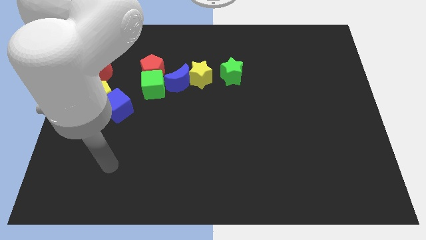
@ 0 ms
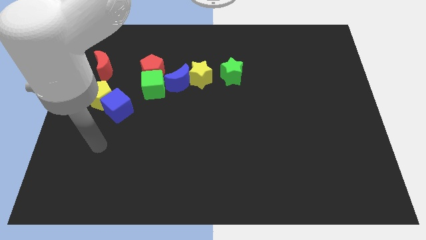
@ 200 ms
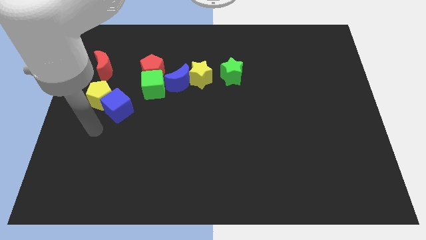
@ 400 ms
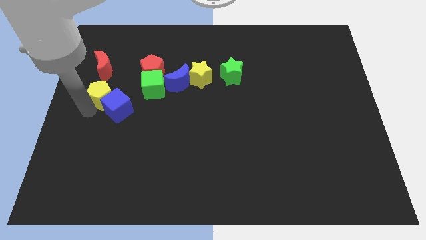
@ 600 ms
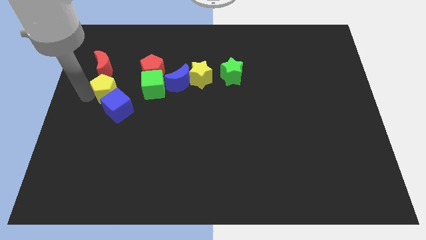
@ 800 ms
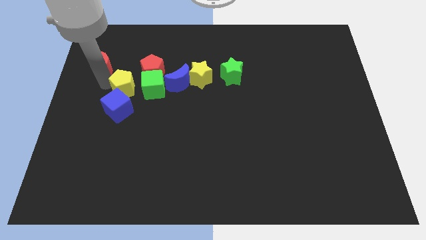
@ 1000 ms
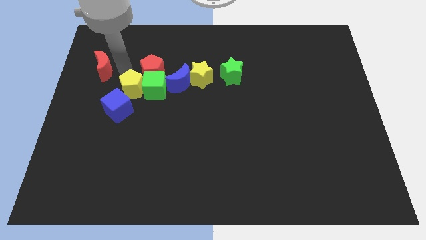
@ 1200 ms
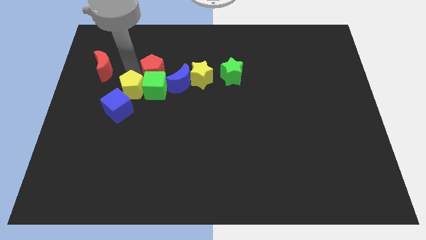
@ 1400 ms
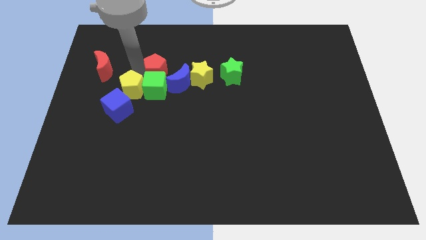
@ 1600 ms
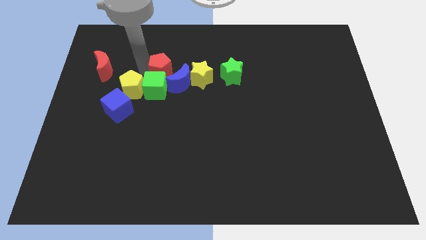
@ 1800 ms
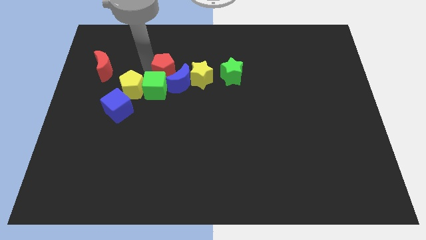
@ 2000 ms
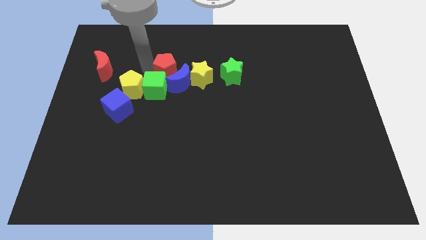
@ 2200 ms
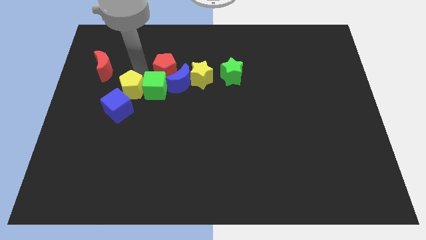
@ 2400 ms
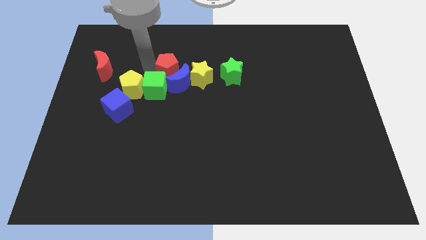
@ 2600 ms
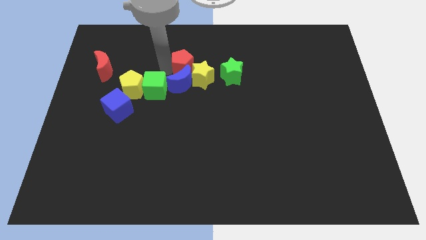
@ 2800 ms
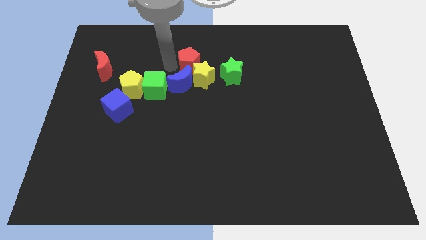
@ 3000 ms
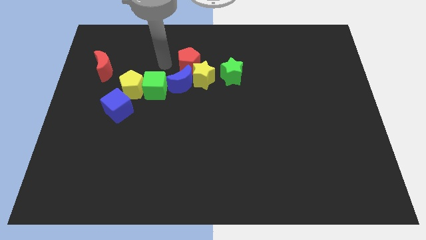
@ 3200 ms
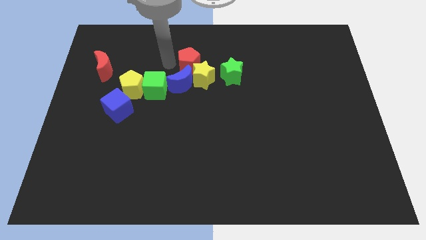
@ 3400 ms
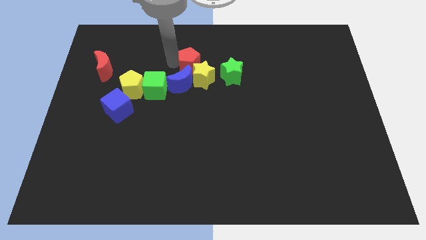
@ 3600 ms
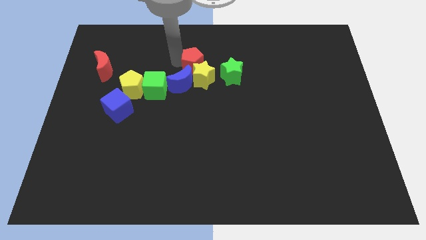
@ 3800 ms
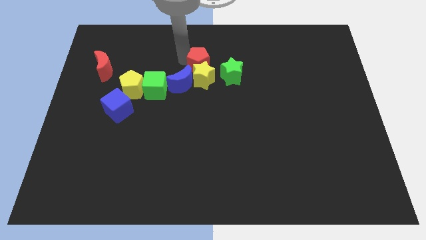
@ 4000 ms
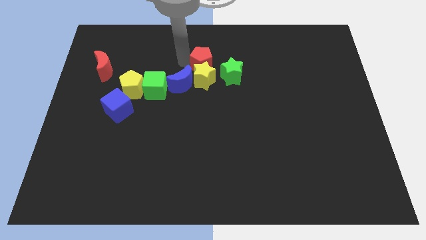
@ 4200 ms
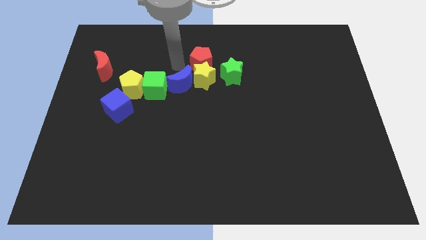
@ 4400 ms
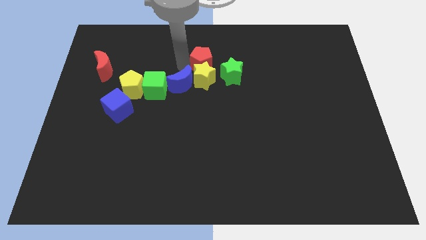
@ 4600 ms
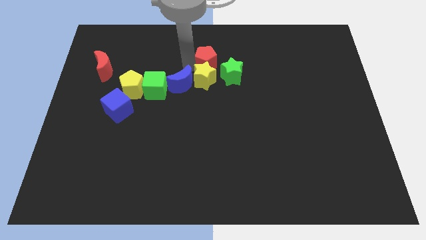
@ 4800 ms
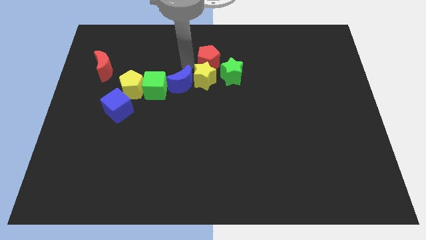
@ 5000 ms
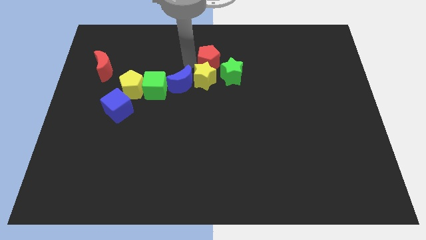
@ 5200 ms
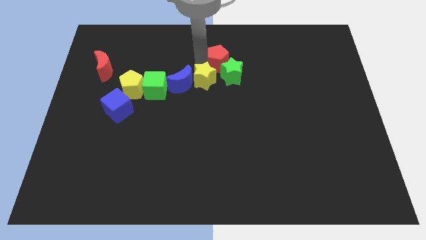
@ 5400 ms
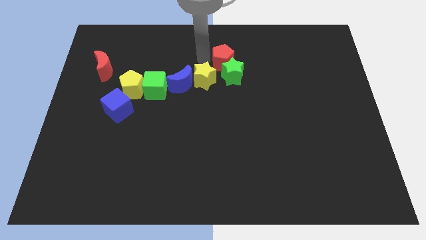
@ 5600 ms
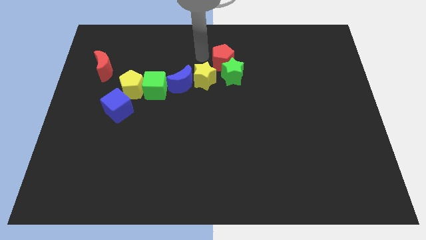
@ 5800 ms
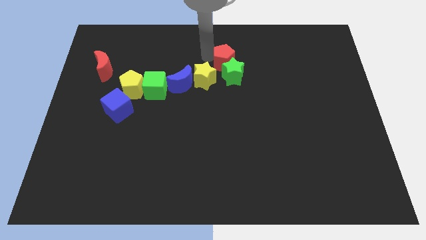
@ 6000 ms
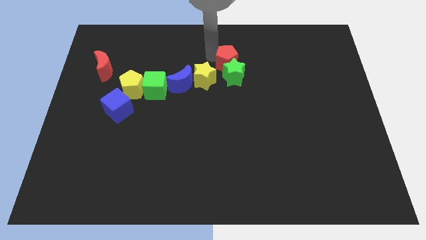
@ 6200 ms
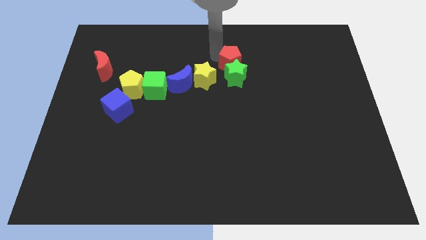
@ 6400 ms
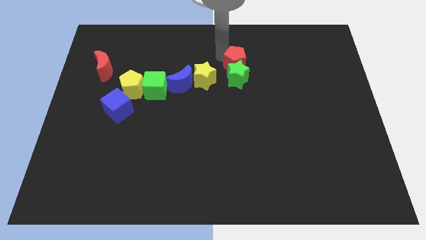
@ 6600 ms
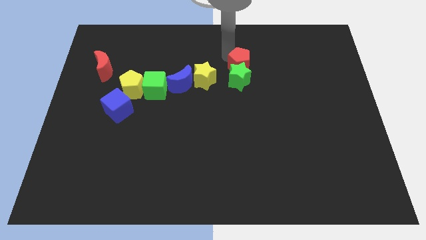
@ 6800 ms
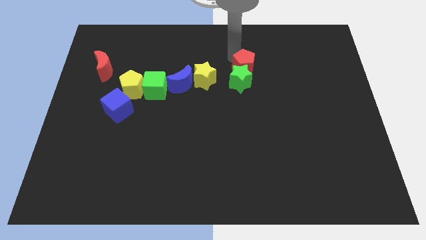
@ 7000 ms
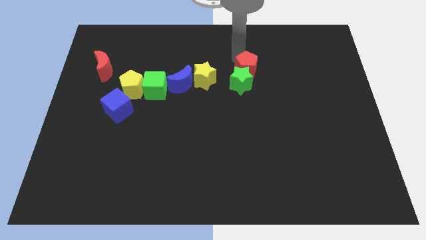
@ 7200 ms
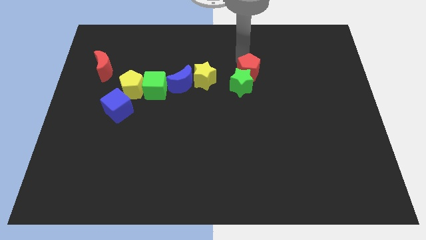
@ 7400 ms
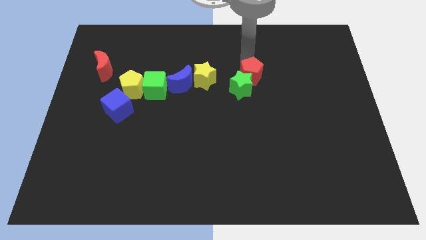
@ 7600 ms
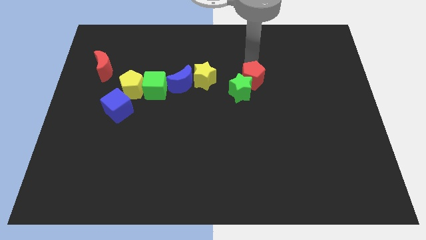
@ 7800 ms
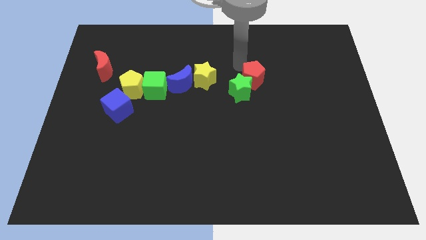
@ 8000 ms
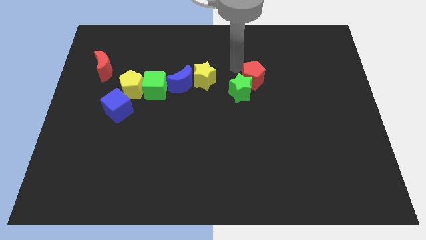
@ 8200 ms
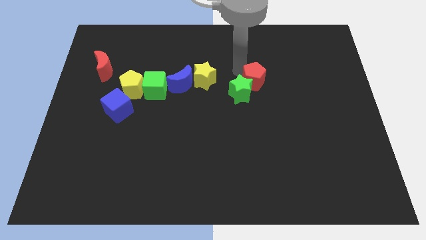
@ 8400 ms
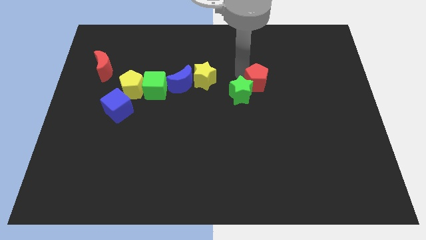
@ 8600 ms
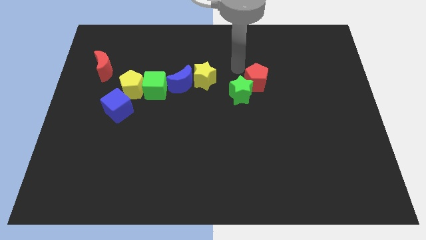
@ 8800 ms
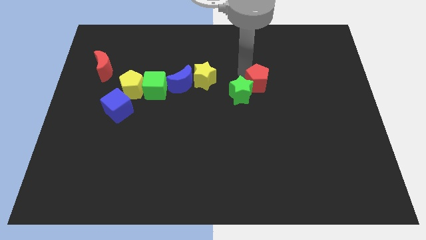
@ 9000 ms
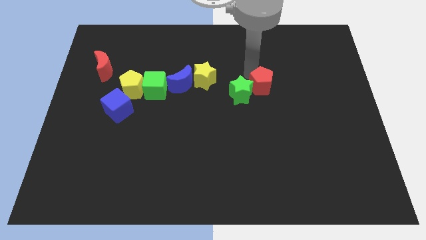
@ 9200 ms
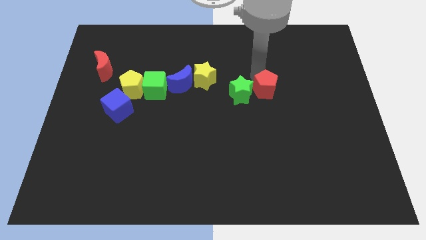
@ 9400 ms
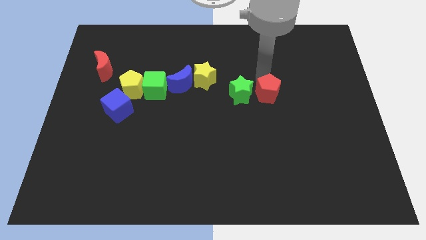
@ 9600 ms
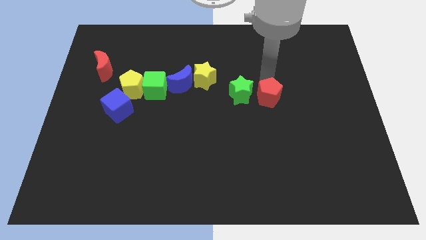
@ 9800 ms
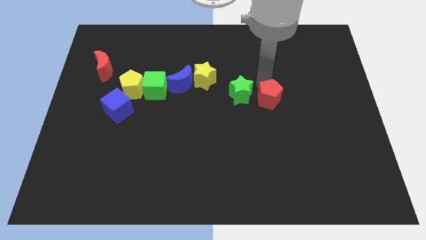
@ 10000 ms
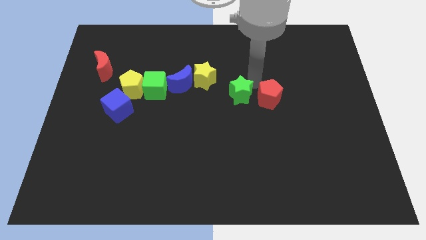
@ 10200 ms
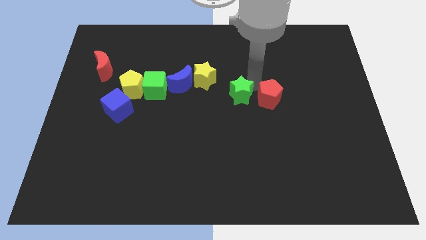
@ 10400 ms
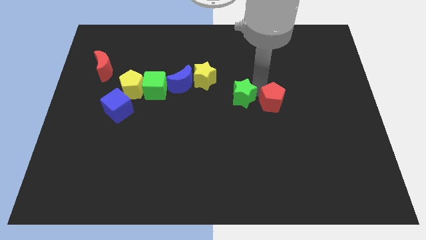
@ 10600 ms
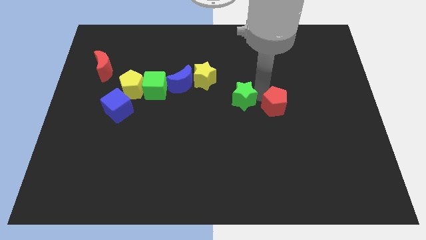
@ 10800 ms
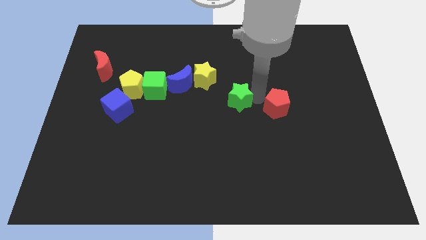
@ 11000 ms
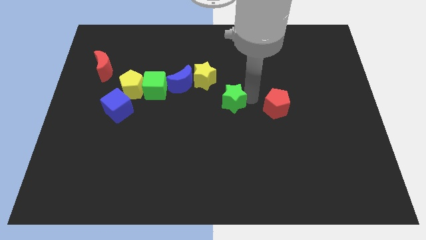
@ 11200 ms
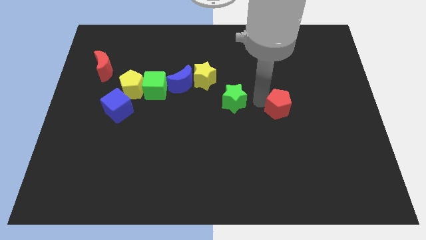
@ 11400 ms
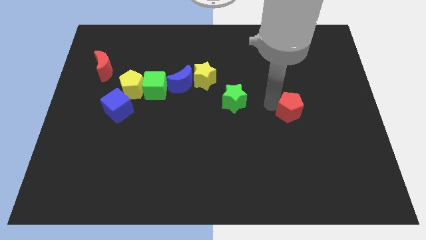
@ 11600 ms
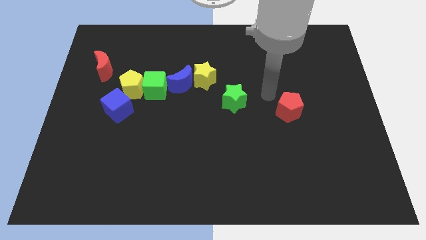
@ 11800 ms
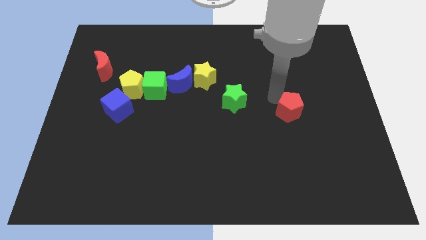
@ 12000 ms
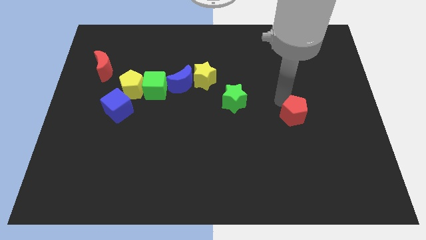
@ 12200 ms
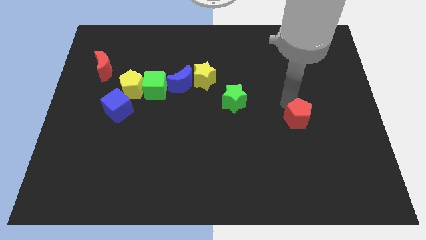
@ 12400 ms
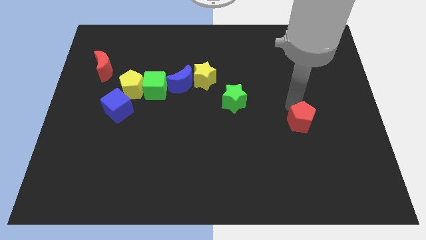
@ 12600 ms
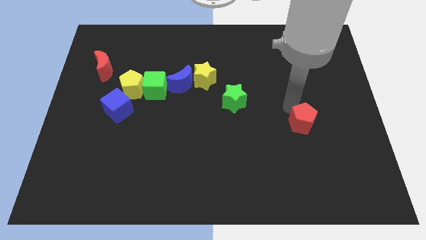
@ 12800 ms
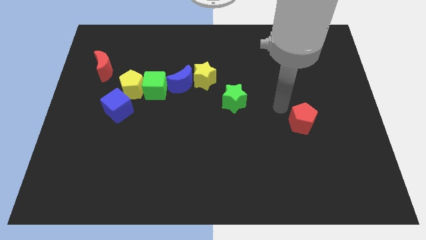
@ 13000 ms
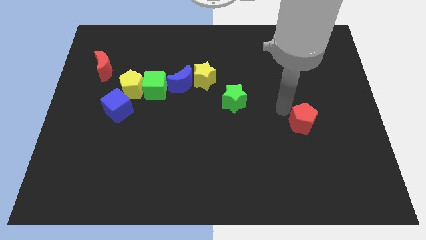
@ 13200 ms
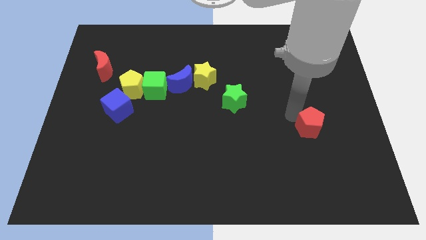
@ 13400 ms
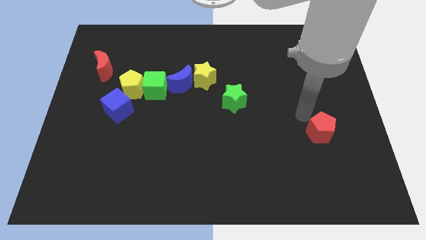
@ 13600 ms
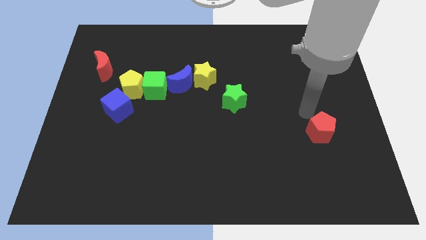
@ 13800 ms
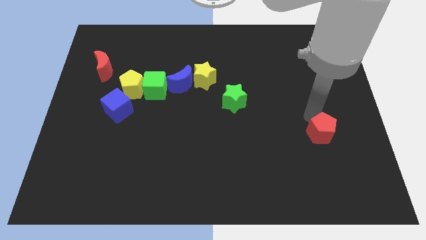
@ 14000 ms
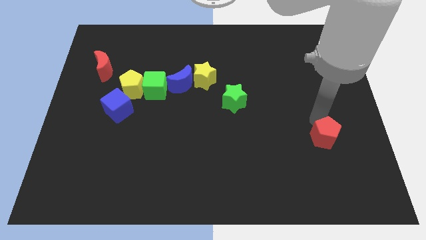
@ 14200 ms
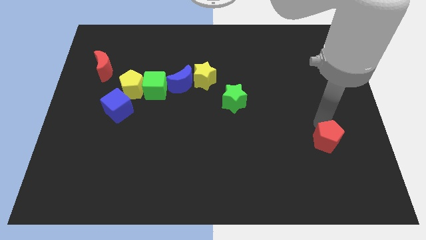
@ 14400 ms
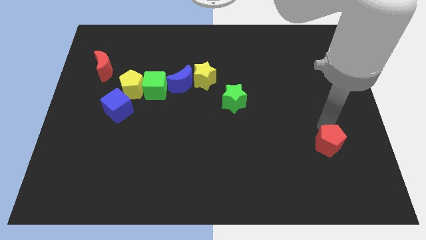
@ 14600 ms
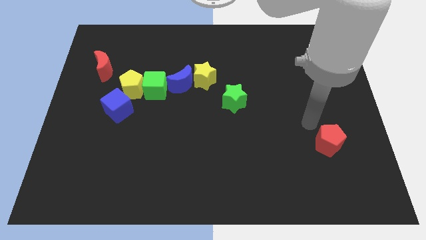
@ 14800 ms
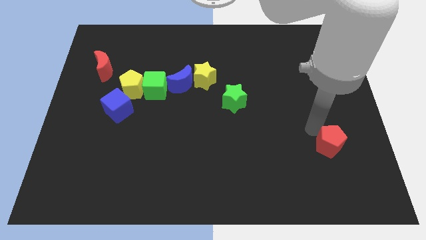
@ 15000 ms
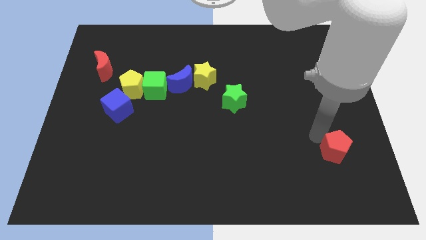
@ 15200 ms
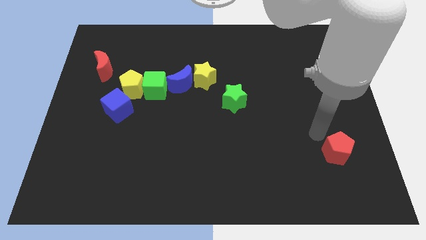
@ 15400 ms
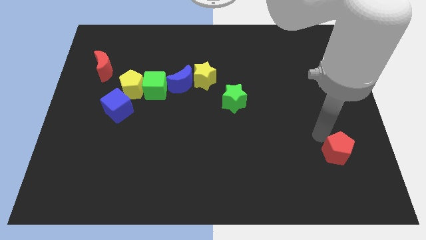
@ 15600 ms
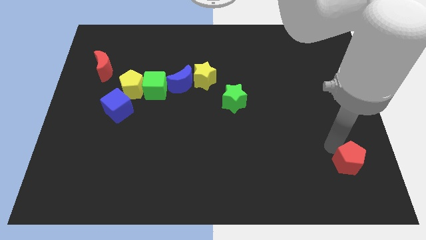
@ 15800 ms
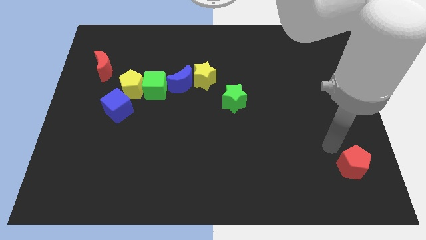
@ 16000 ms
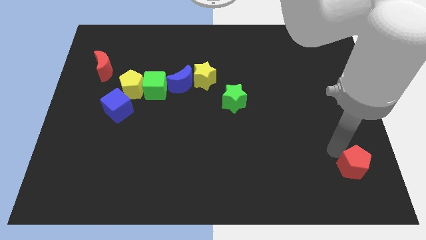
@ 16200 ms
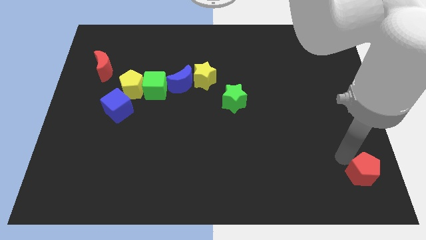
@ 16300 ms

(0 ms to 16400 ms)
slide the red pentagon to the lower right corner
